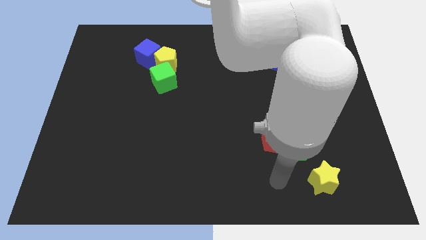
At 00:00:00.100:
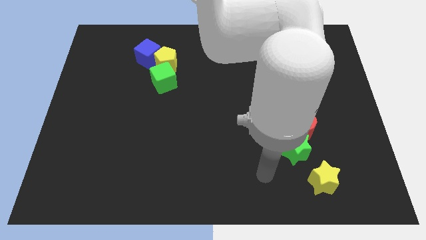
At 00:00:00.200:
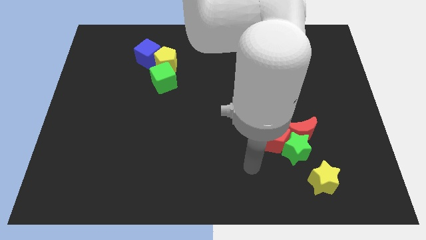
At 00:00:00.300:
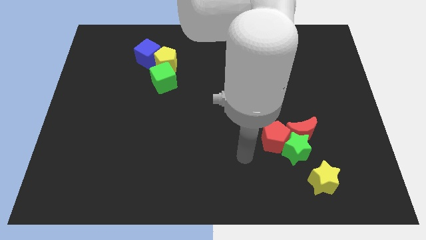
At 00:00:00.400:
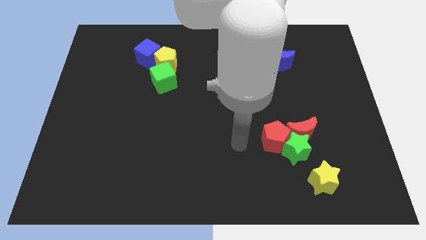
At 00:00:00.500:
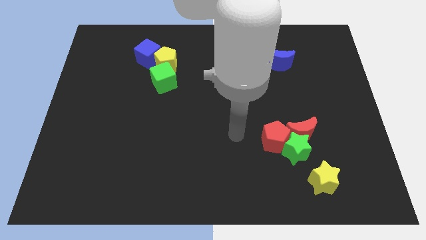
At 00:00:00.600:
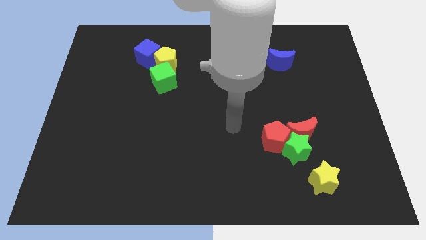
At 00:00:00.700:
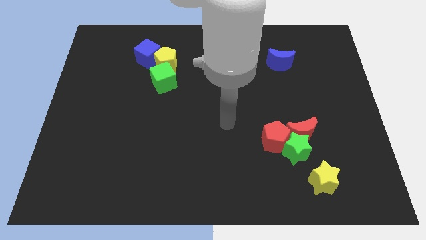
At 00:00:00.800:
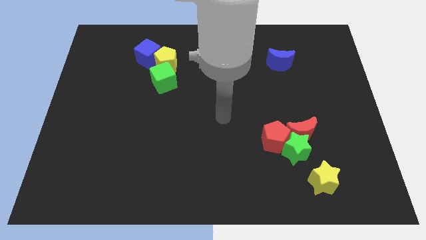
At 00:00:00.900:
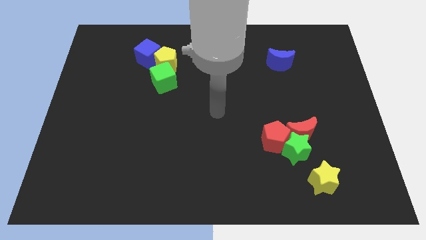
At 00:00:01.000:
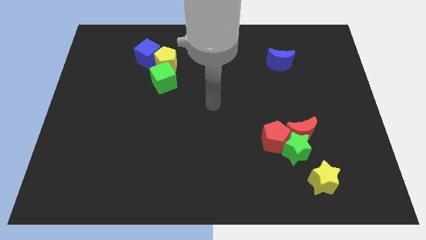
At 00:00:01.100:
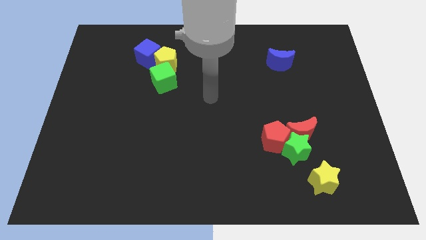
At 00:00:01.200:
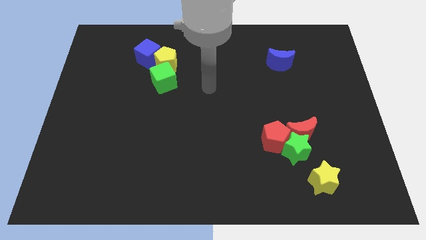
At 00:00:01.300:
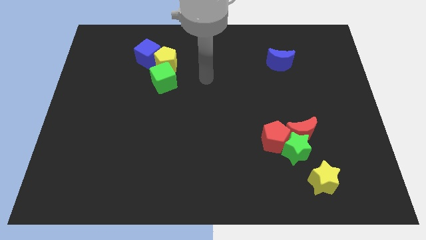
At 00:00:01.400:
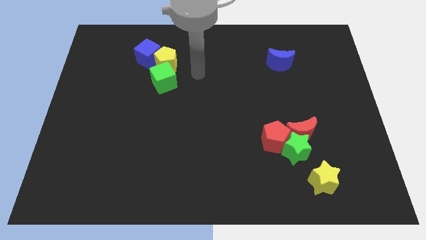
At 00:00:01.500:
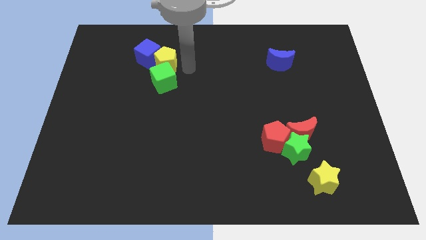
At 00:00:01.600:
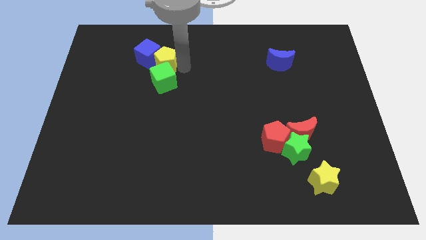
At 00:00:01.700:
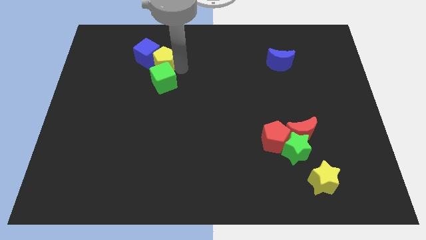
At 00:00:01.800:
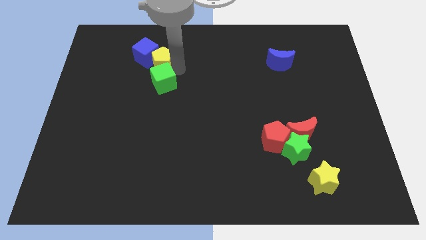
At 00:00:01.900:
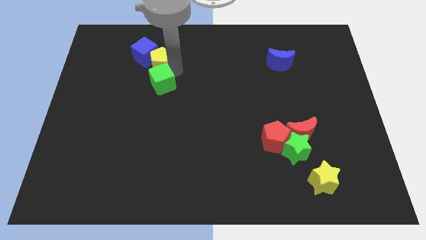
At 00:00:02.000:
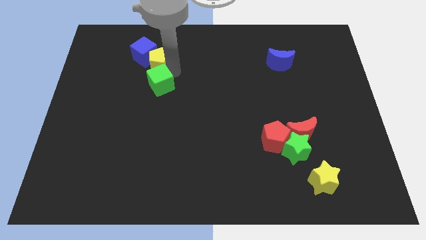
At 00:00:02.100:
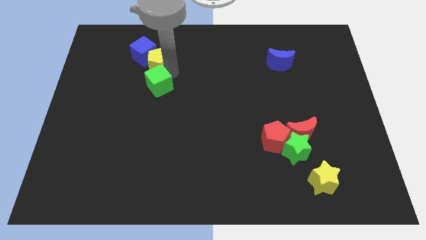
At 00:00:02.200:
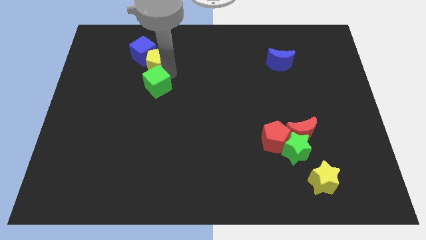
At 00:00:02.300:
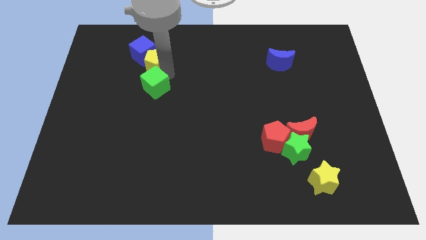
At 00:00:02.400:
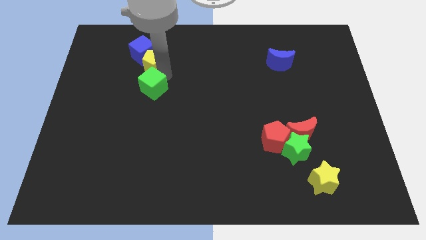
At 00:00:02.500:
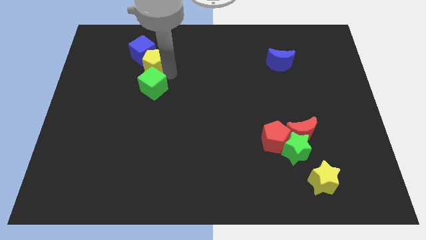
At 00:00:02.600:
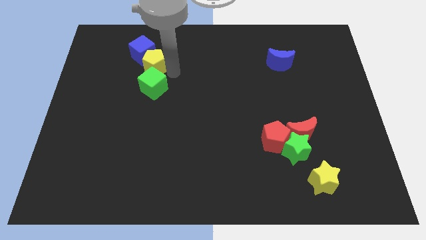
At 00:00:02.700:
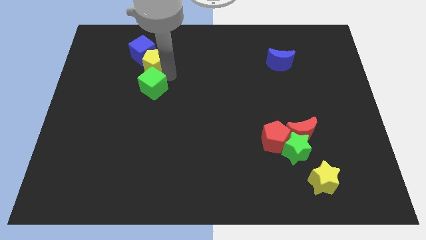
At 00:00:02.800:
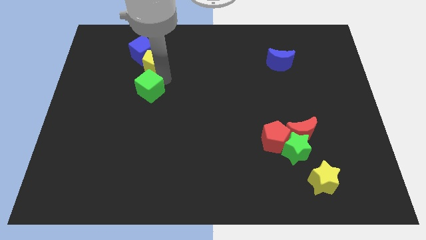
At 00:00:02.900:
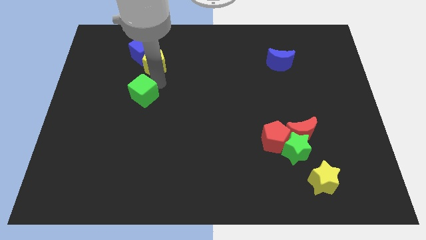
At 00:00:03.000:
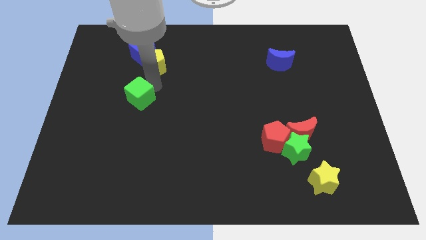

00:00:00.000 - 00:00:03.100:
slightly push the green cube diagonally downwards and left

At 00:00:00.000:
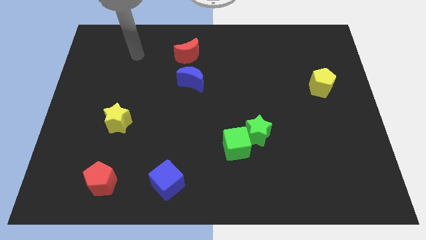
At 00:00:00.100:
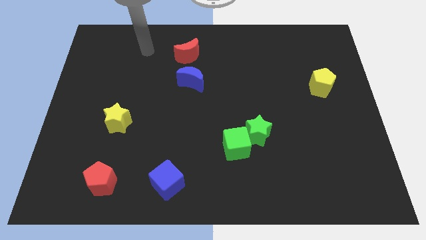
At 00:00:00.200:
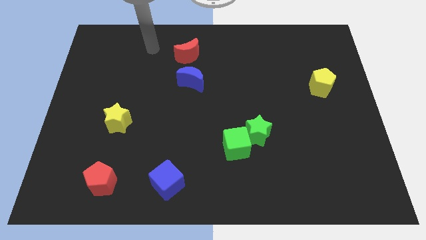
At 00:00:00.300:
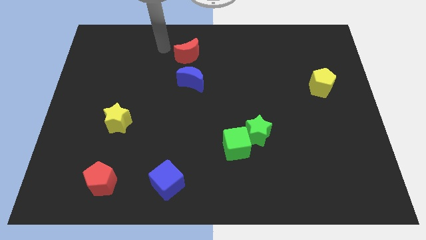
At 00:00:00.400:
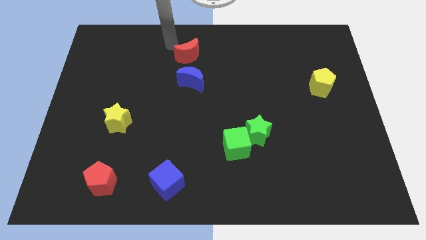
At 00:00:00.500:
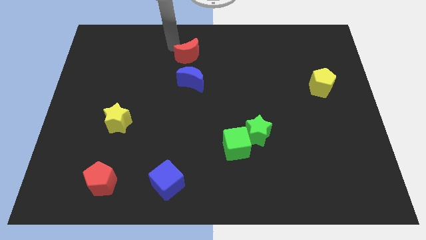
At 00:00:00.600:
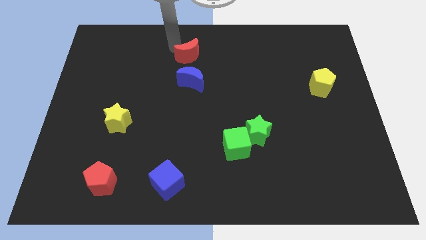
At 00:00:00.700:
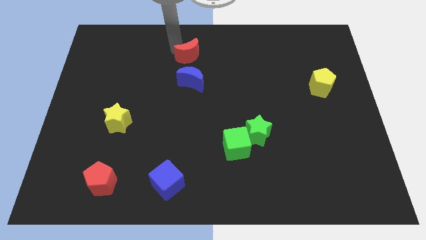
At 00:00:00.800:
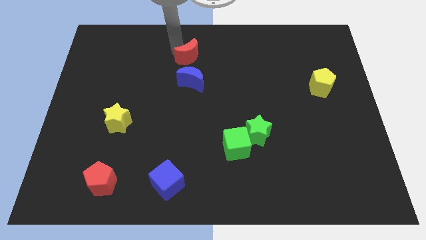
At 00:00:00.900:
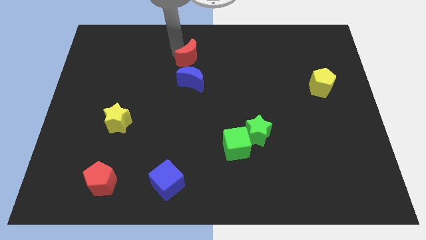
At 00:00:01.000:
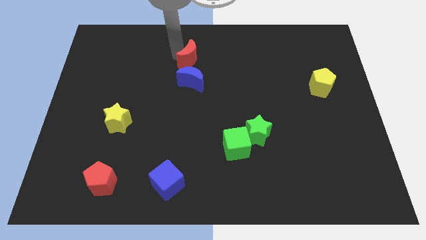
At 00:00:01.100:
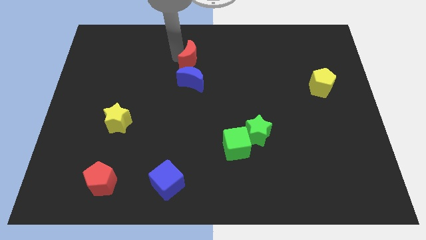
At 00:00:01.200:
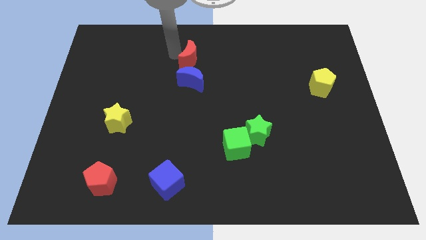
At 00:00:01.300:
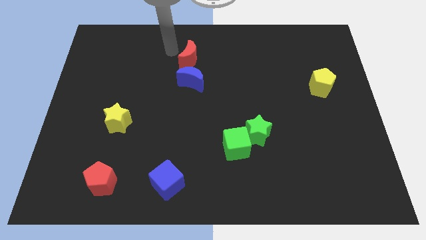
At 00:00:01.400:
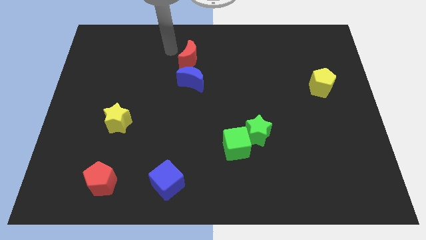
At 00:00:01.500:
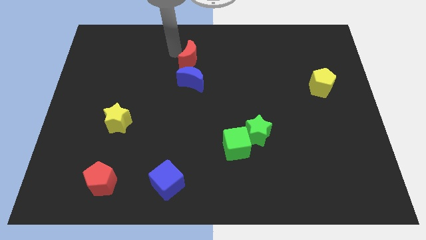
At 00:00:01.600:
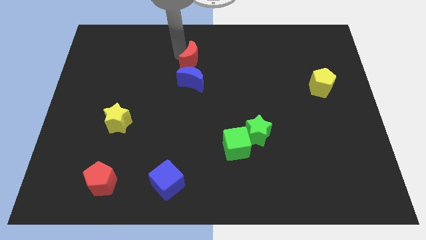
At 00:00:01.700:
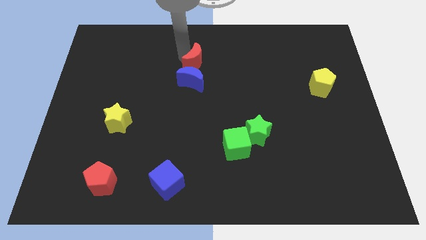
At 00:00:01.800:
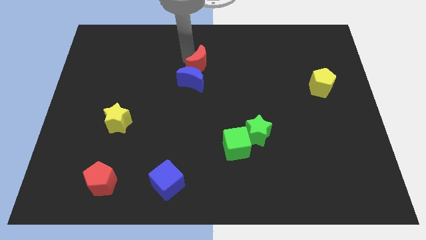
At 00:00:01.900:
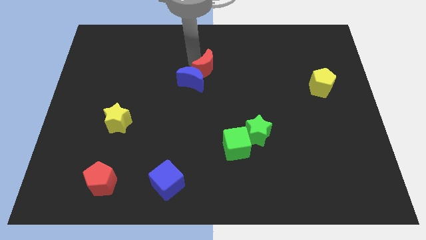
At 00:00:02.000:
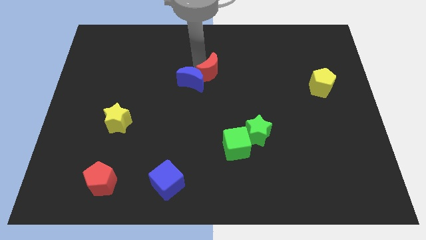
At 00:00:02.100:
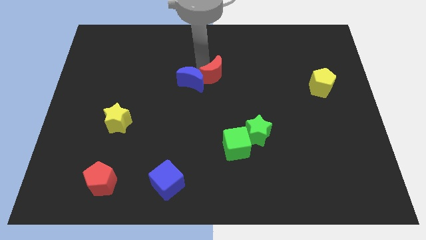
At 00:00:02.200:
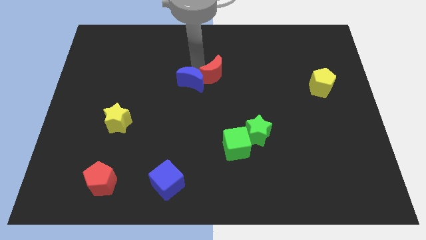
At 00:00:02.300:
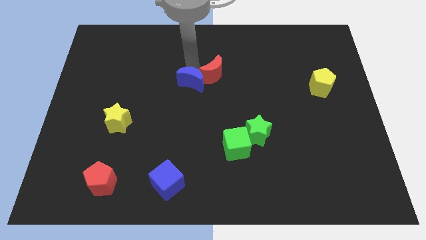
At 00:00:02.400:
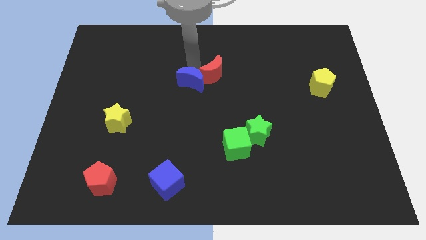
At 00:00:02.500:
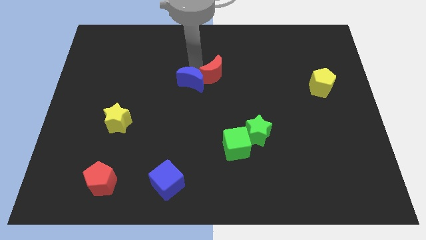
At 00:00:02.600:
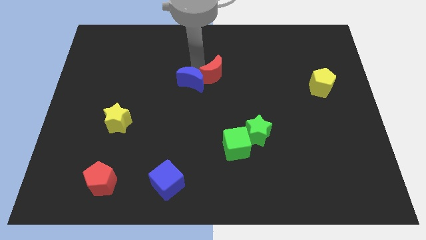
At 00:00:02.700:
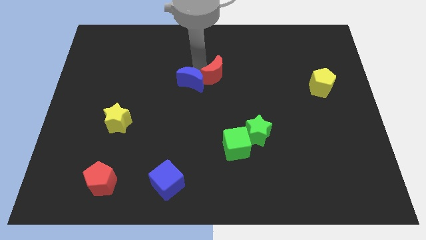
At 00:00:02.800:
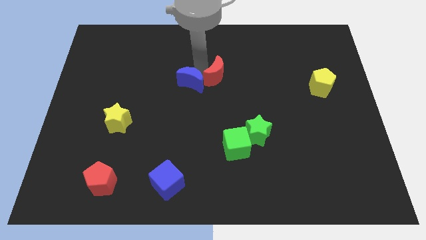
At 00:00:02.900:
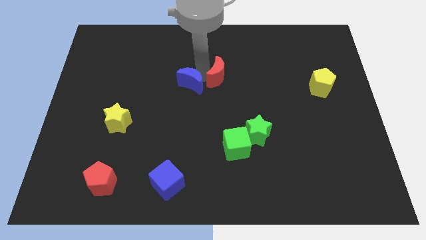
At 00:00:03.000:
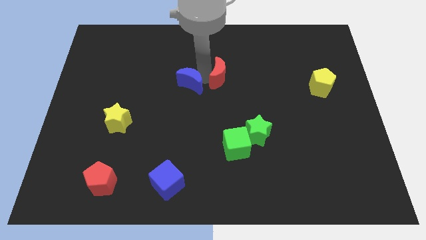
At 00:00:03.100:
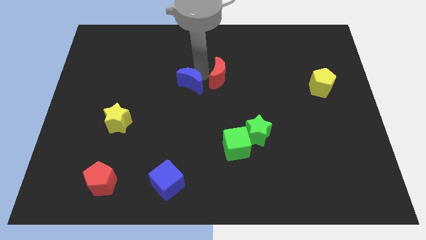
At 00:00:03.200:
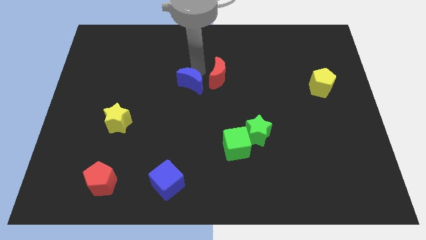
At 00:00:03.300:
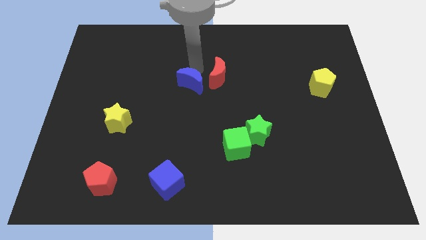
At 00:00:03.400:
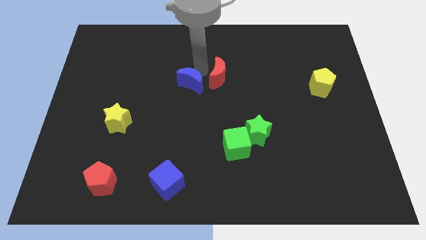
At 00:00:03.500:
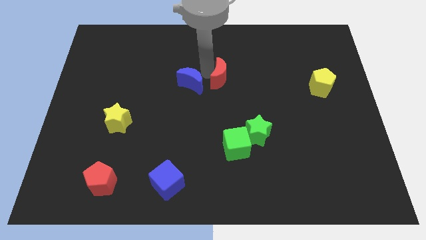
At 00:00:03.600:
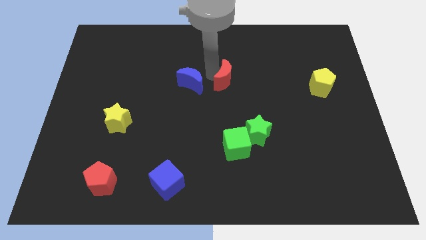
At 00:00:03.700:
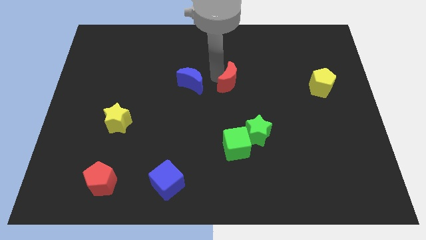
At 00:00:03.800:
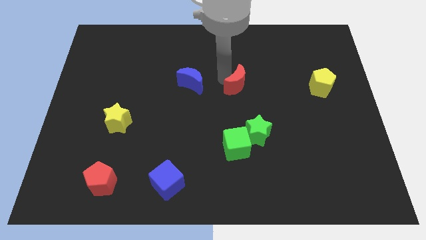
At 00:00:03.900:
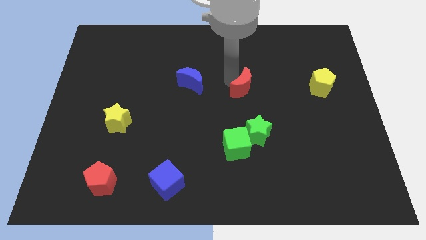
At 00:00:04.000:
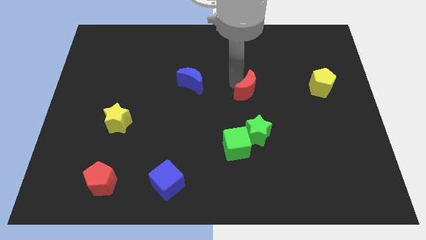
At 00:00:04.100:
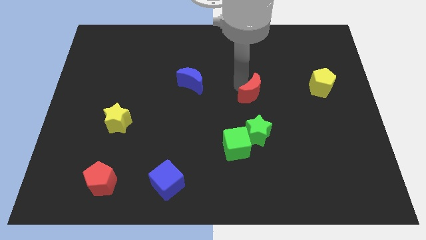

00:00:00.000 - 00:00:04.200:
move the red moon downwards and right diagonally

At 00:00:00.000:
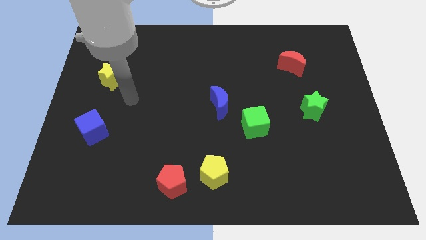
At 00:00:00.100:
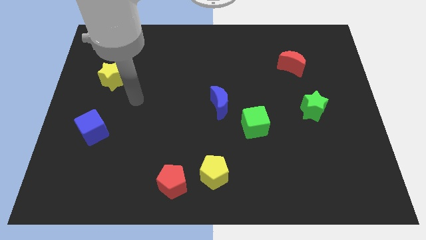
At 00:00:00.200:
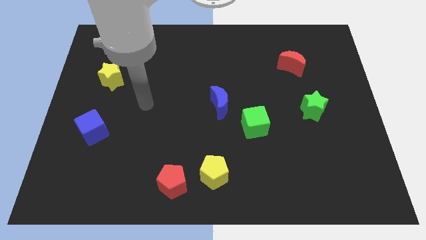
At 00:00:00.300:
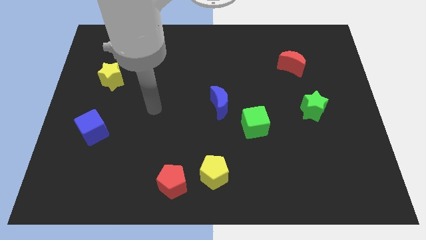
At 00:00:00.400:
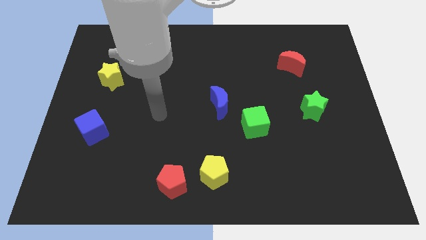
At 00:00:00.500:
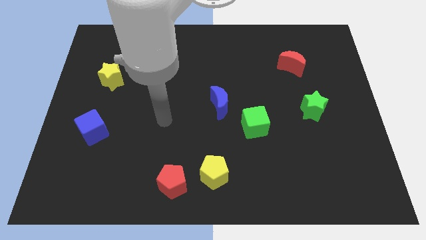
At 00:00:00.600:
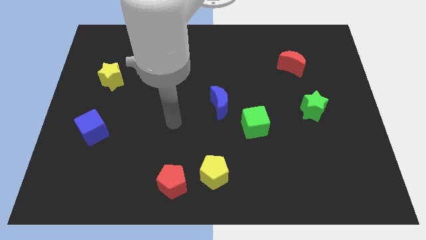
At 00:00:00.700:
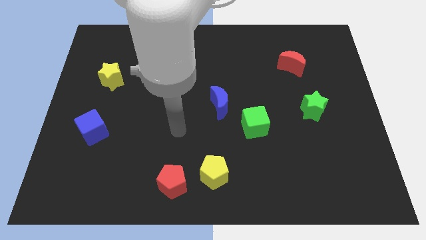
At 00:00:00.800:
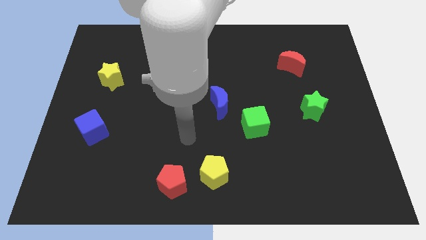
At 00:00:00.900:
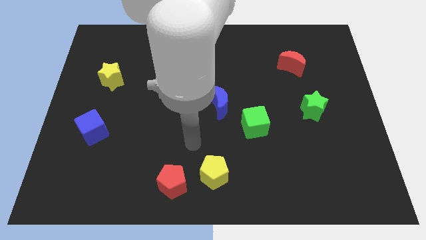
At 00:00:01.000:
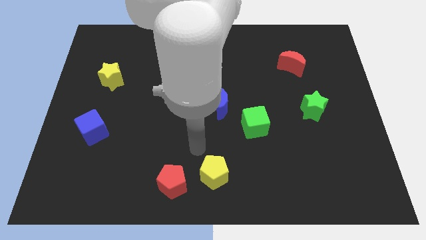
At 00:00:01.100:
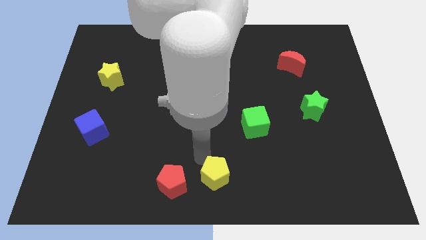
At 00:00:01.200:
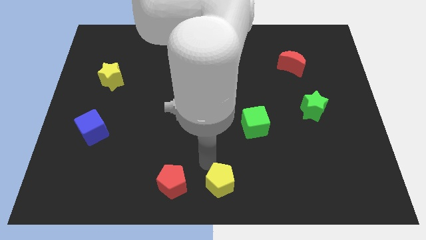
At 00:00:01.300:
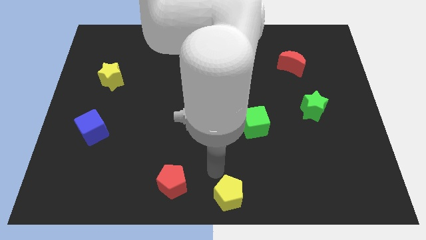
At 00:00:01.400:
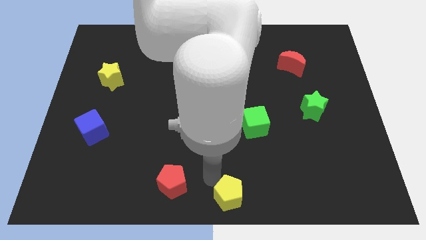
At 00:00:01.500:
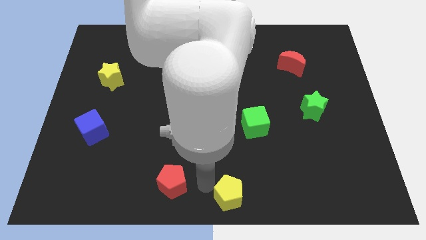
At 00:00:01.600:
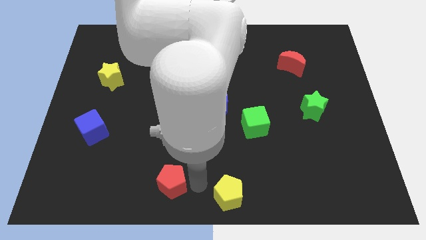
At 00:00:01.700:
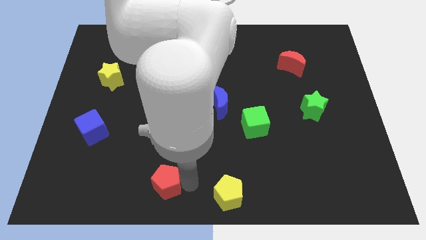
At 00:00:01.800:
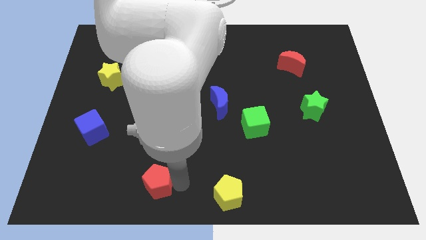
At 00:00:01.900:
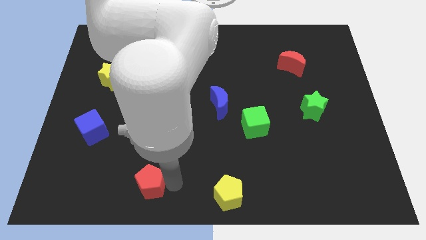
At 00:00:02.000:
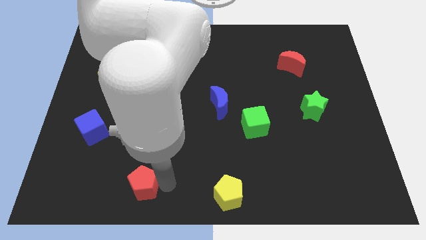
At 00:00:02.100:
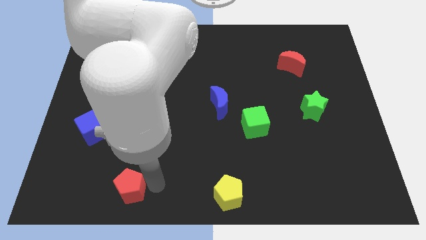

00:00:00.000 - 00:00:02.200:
move the red pentagon left a little
